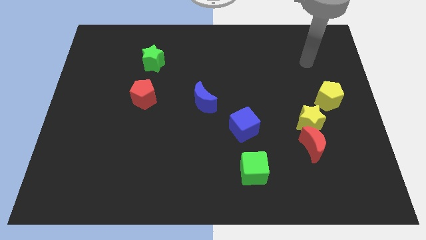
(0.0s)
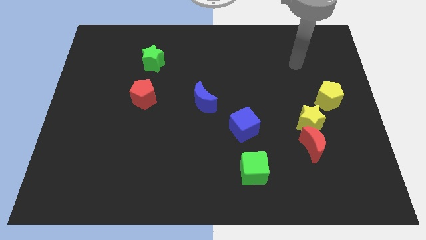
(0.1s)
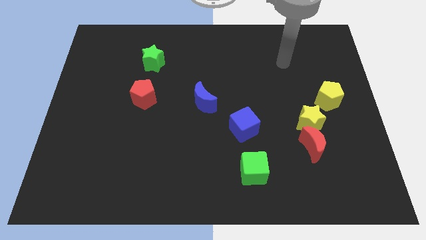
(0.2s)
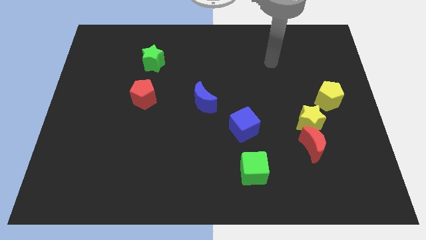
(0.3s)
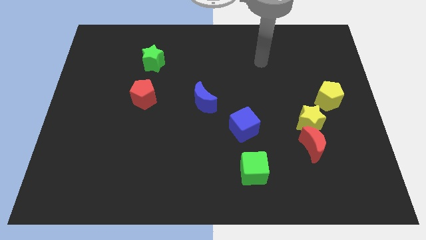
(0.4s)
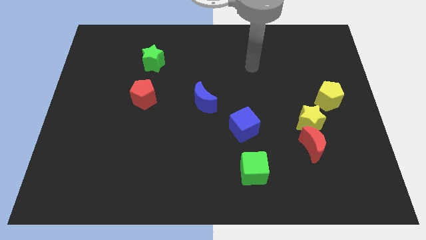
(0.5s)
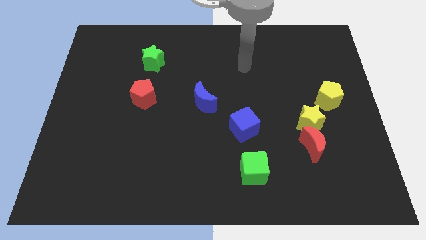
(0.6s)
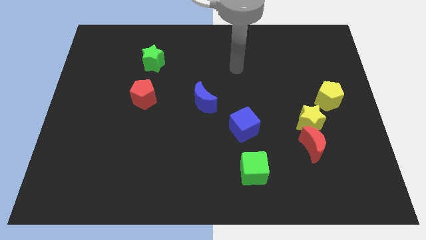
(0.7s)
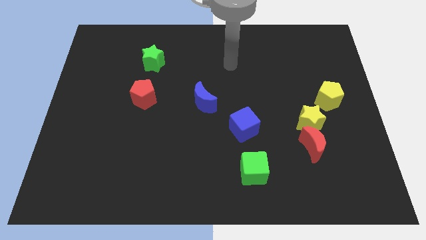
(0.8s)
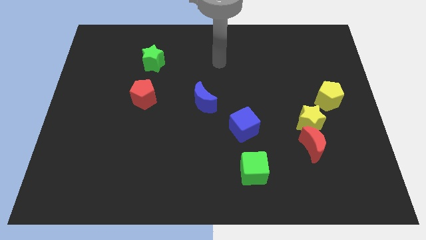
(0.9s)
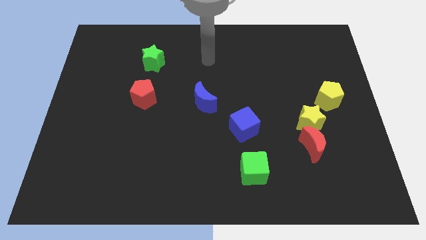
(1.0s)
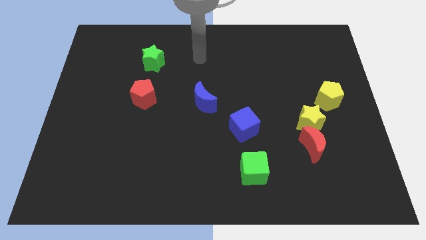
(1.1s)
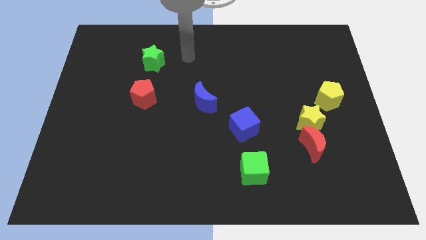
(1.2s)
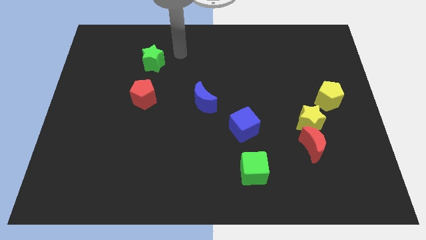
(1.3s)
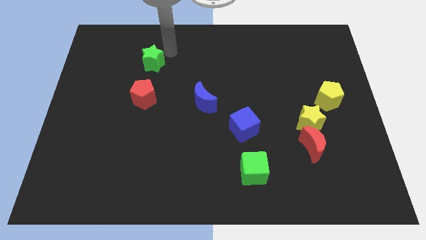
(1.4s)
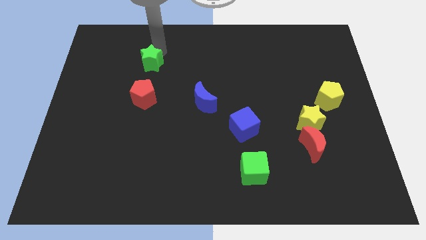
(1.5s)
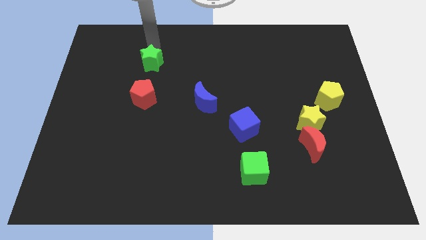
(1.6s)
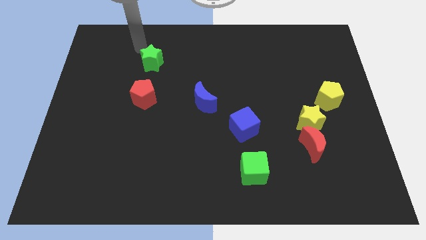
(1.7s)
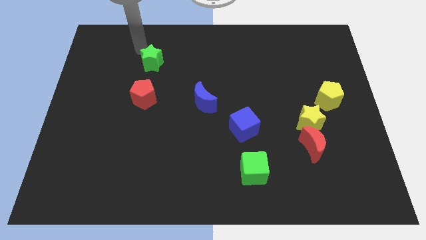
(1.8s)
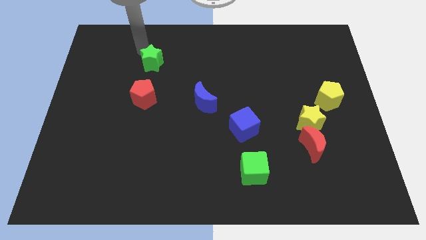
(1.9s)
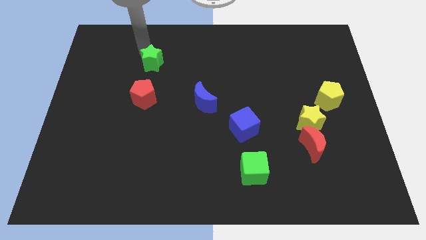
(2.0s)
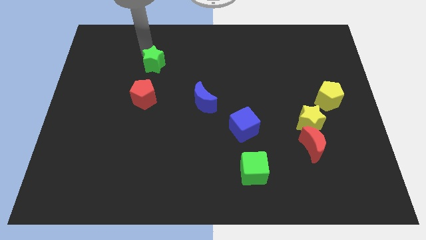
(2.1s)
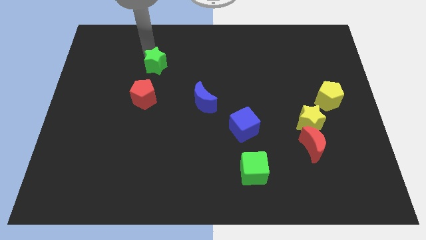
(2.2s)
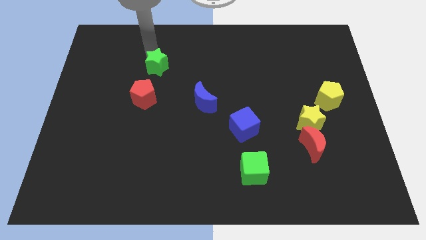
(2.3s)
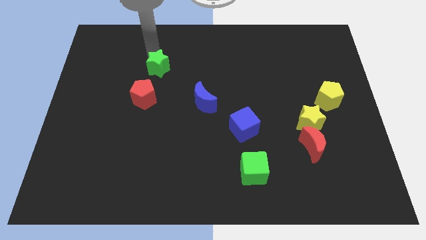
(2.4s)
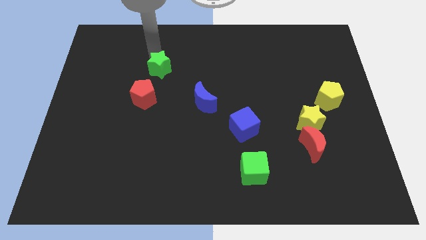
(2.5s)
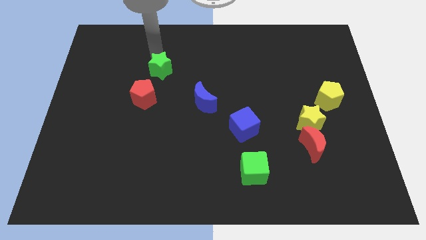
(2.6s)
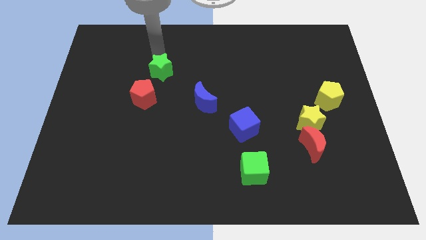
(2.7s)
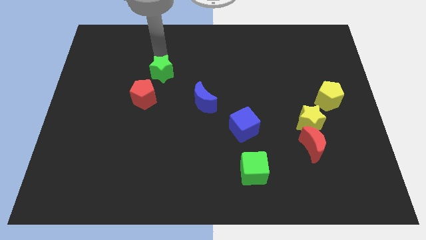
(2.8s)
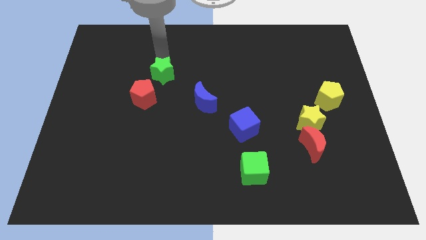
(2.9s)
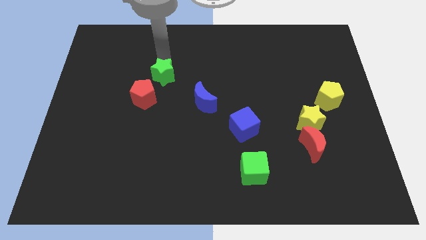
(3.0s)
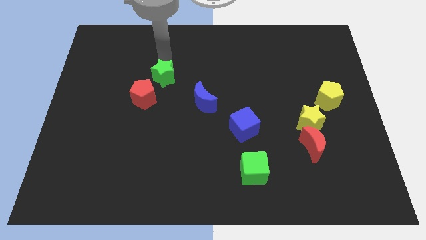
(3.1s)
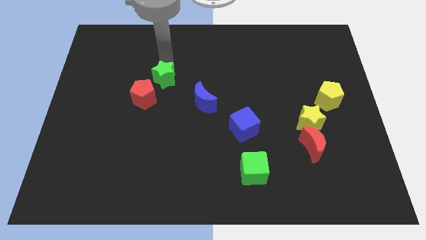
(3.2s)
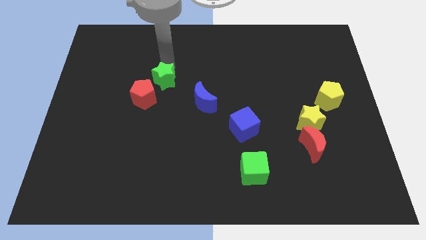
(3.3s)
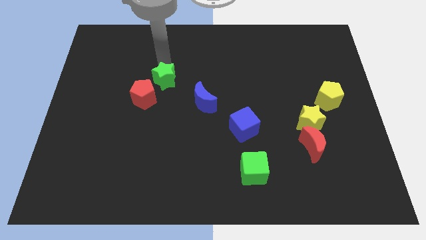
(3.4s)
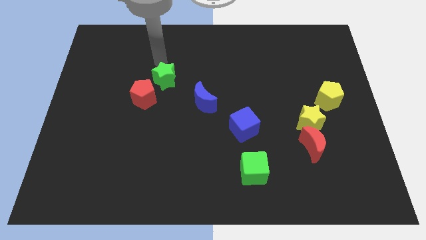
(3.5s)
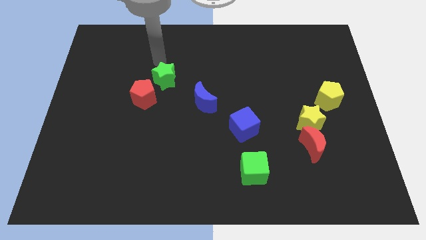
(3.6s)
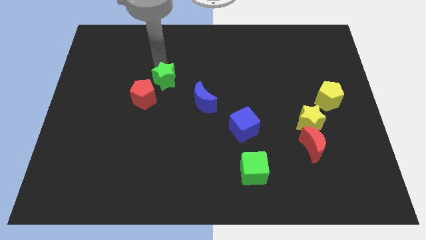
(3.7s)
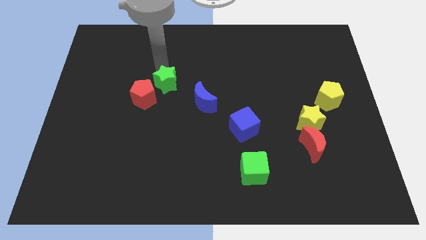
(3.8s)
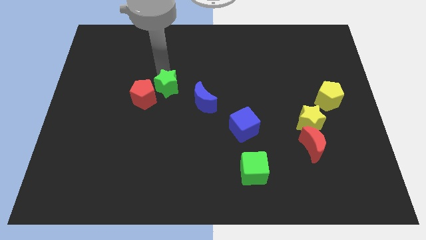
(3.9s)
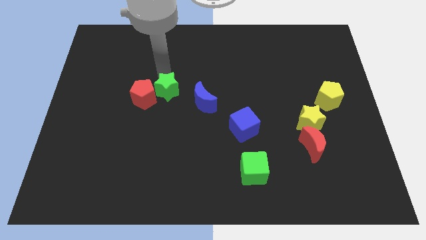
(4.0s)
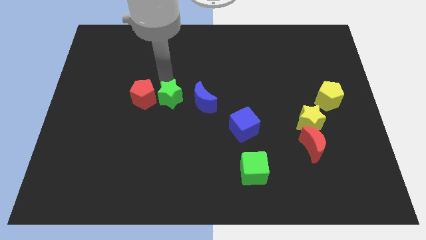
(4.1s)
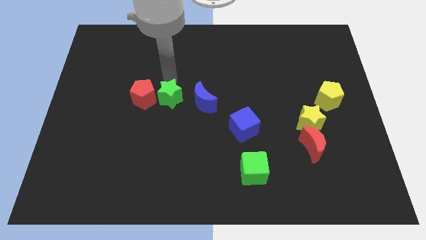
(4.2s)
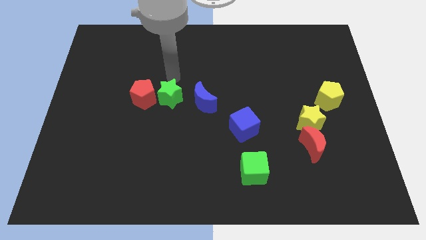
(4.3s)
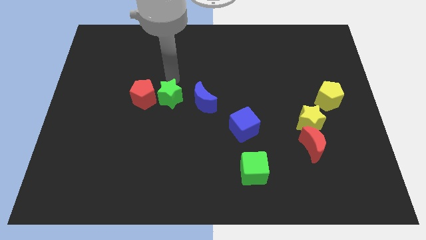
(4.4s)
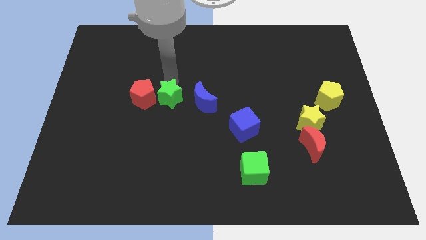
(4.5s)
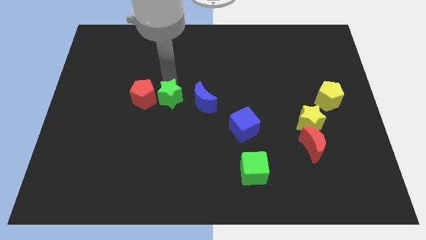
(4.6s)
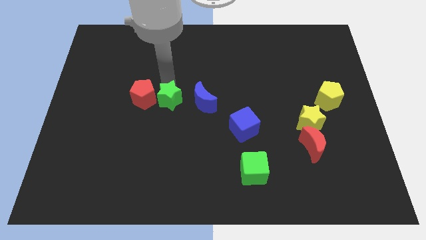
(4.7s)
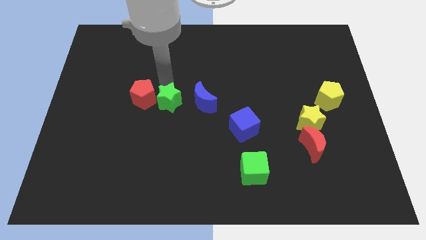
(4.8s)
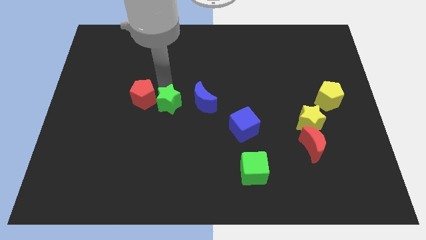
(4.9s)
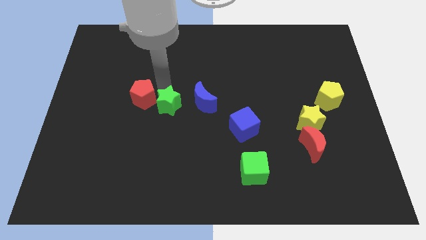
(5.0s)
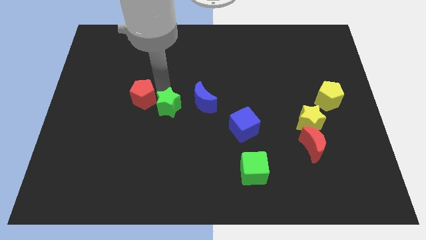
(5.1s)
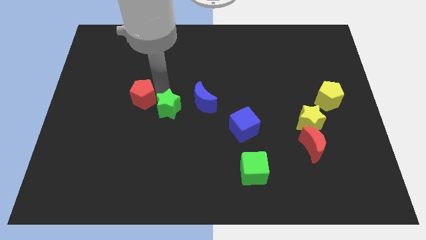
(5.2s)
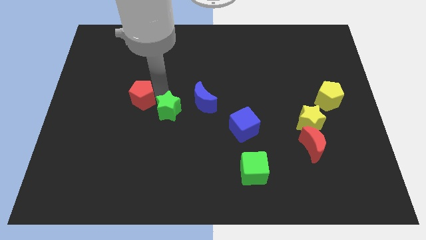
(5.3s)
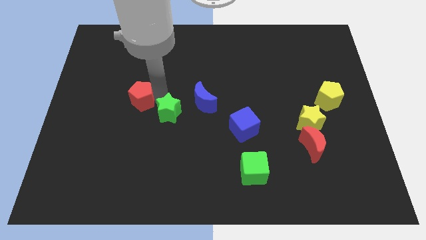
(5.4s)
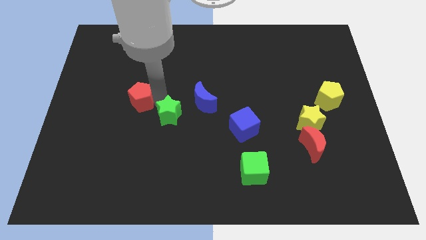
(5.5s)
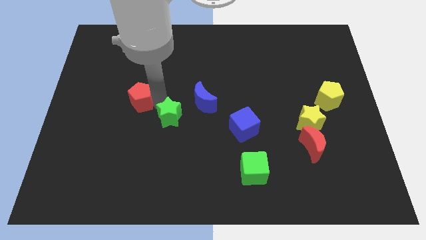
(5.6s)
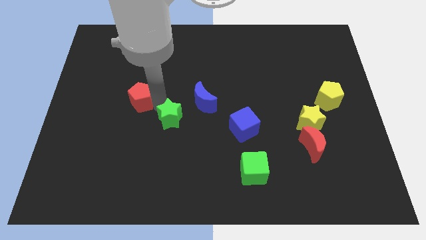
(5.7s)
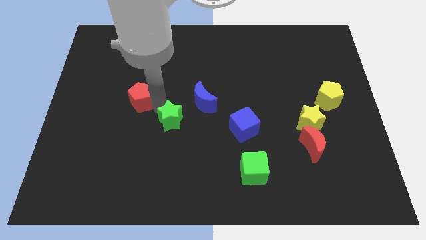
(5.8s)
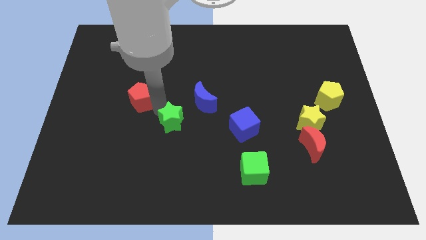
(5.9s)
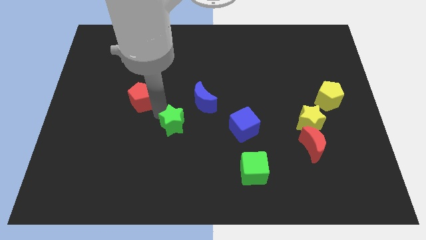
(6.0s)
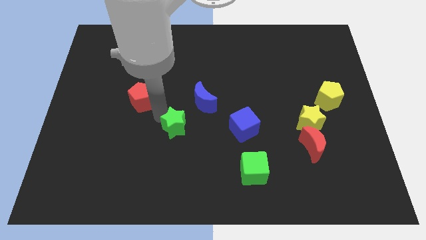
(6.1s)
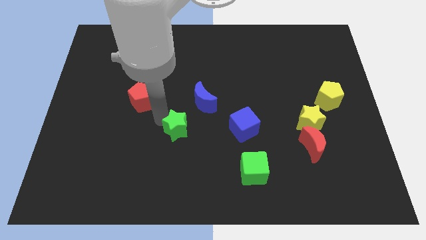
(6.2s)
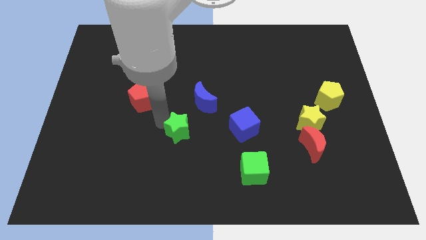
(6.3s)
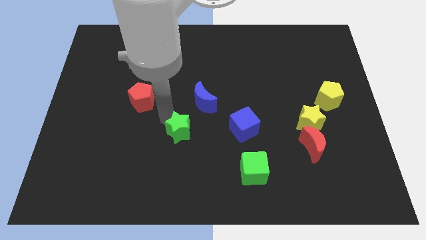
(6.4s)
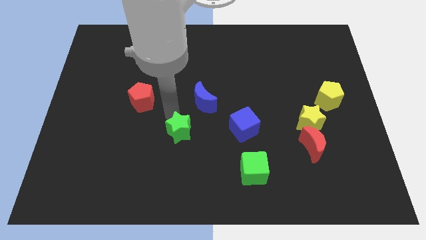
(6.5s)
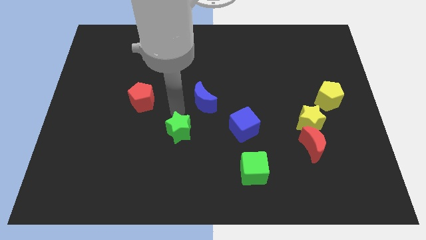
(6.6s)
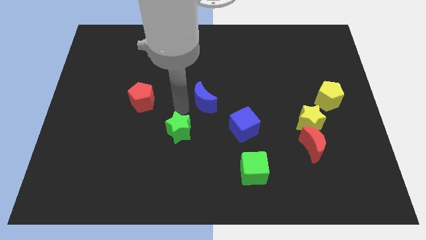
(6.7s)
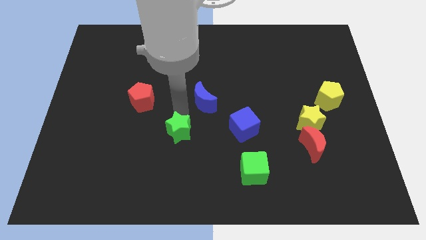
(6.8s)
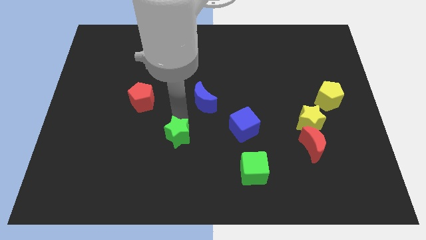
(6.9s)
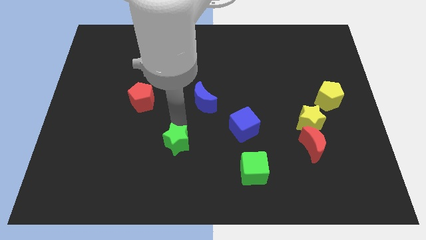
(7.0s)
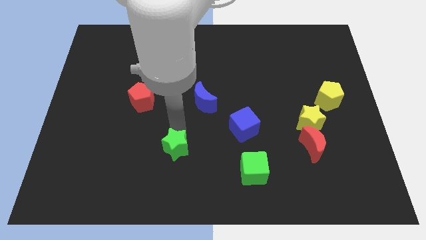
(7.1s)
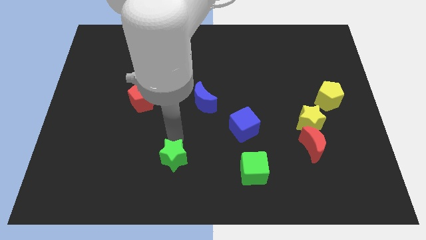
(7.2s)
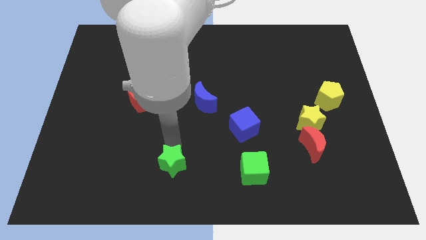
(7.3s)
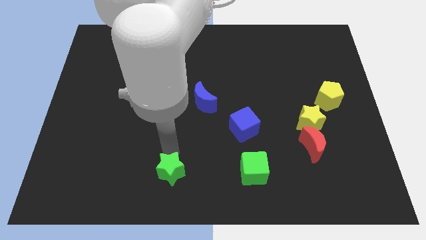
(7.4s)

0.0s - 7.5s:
put the green star to the bottom
